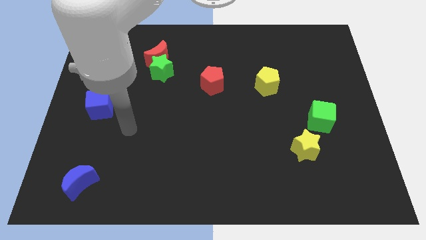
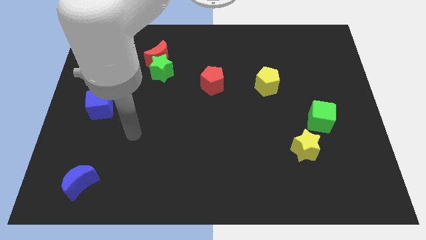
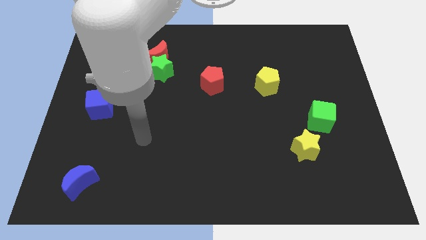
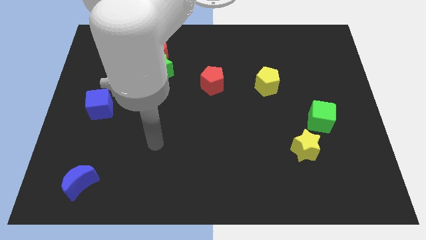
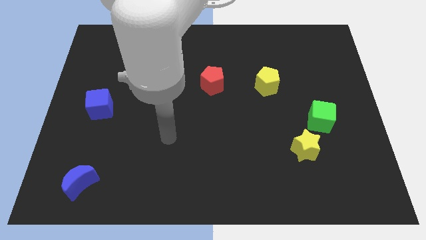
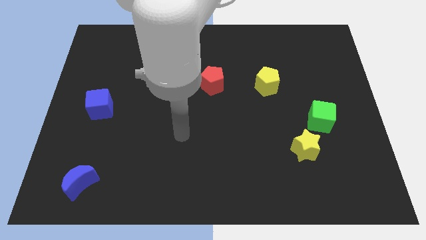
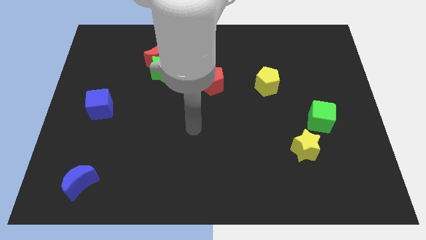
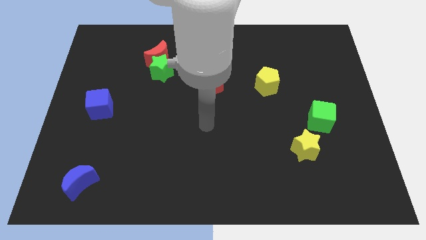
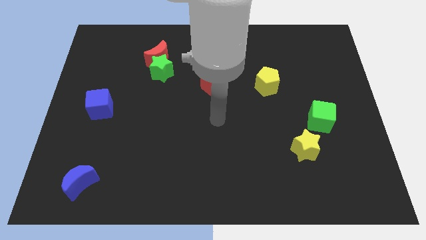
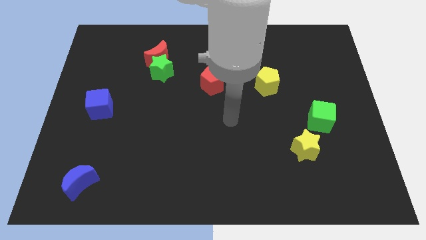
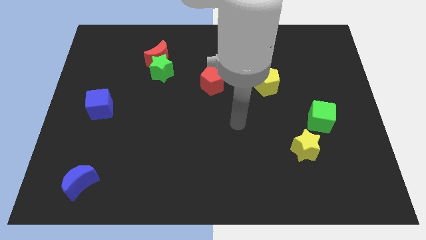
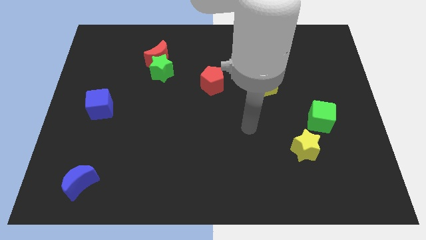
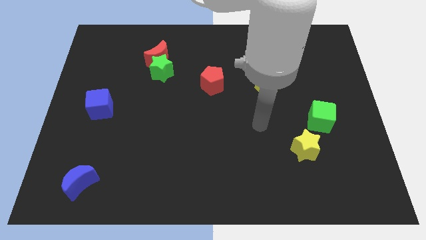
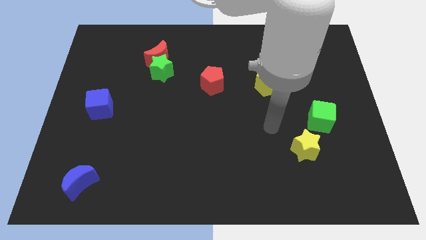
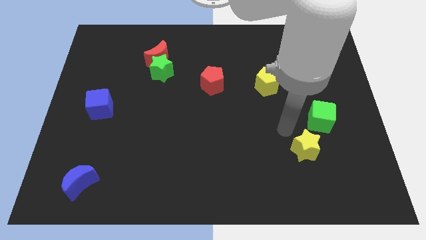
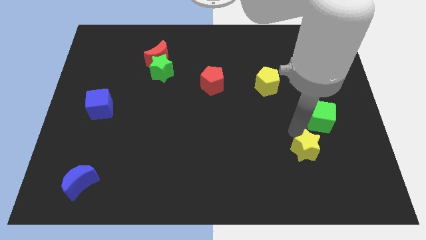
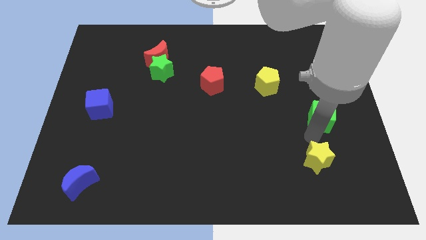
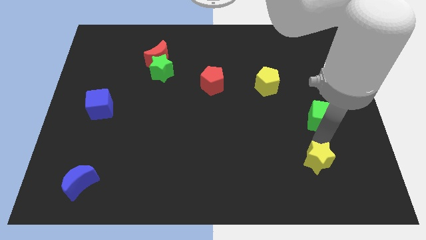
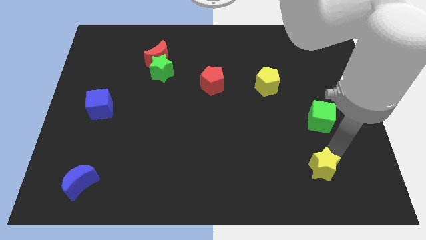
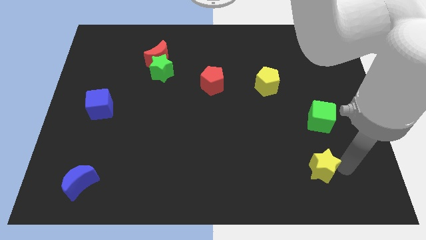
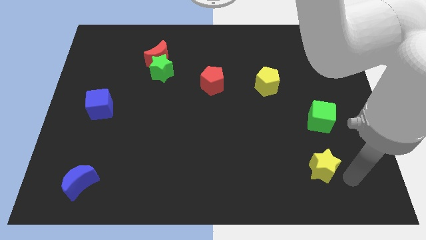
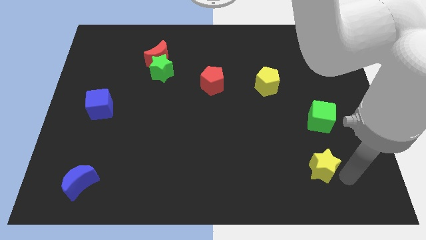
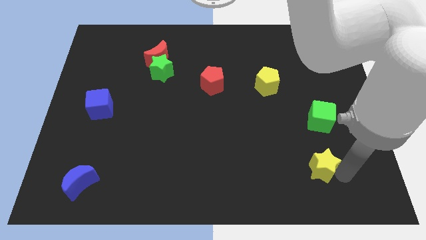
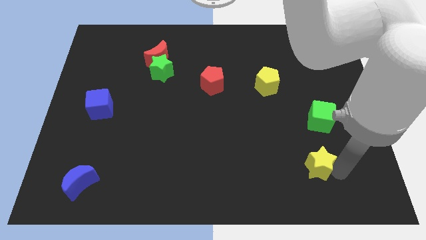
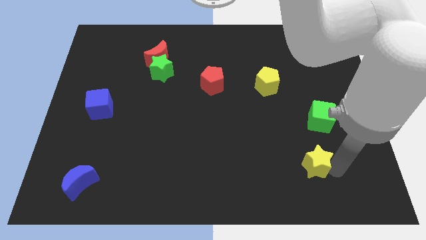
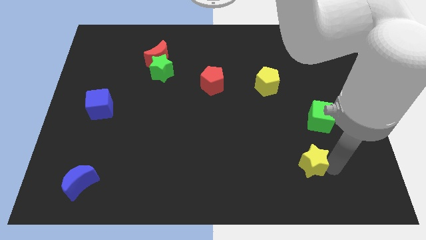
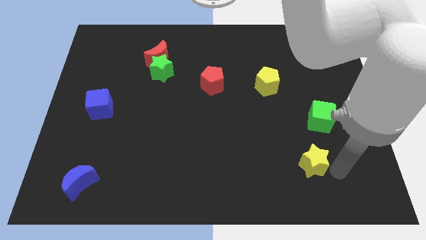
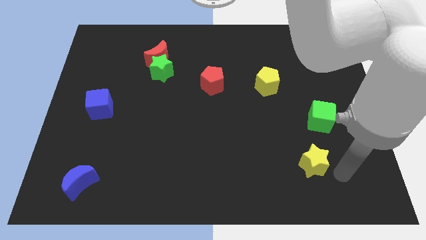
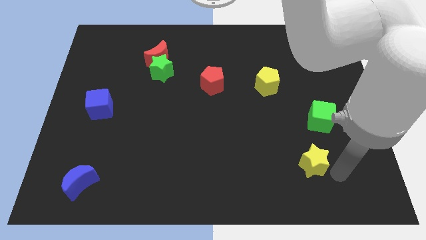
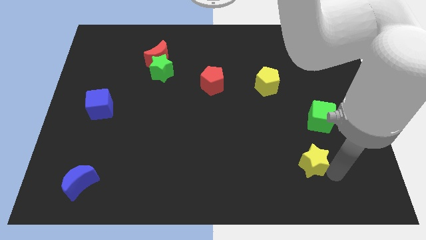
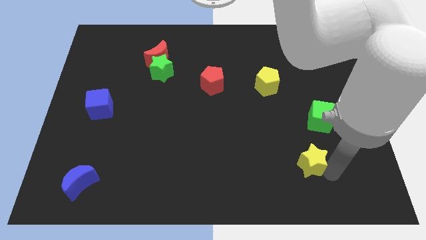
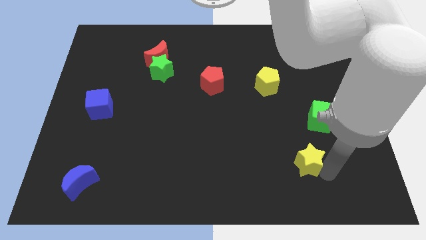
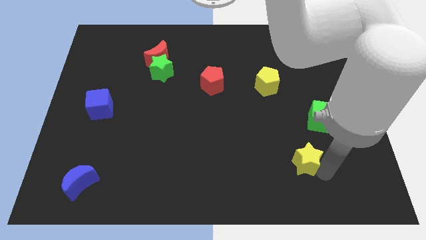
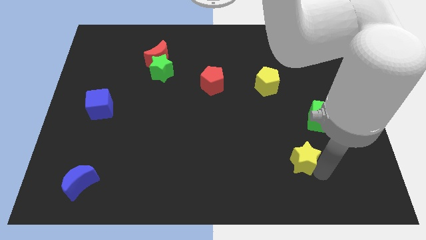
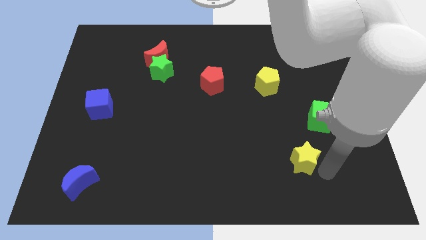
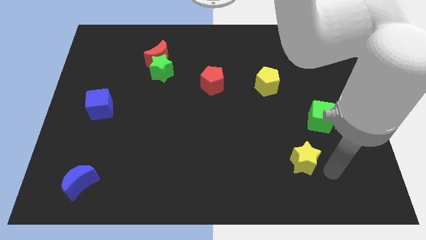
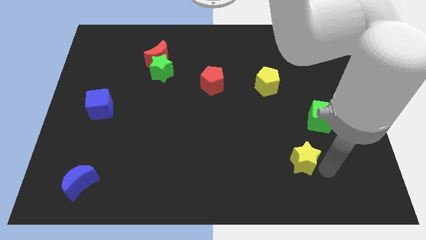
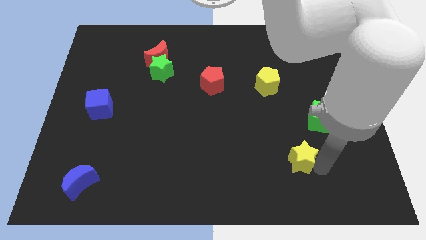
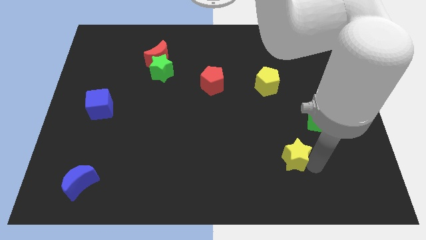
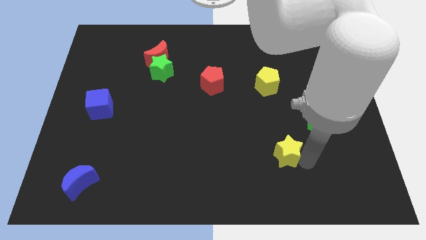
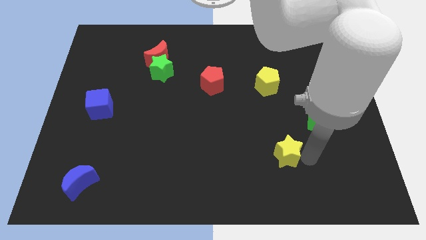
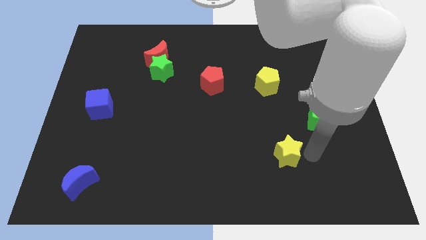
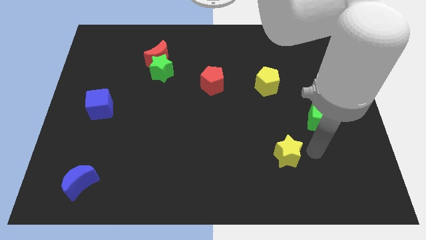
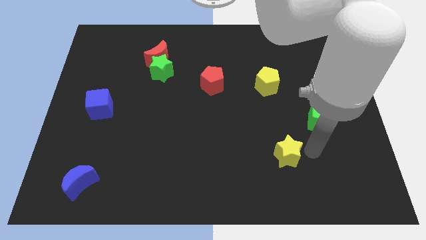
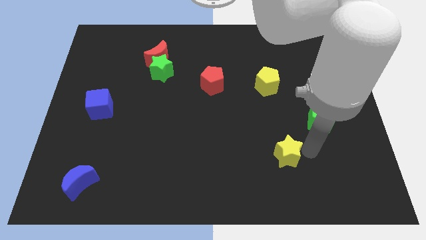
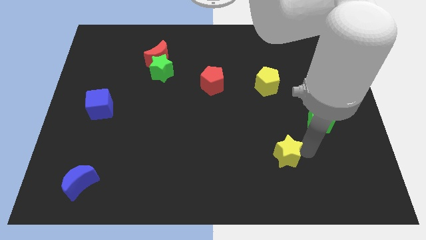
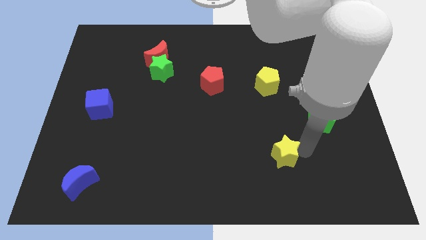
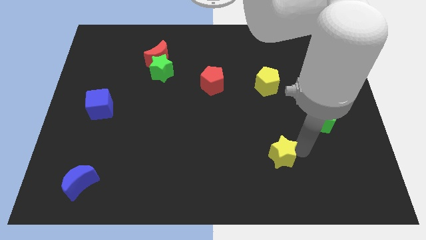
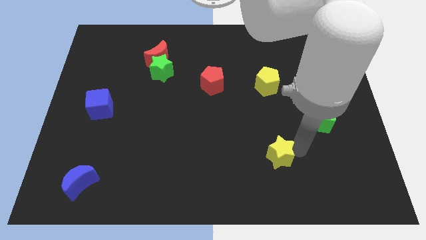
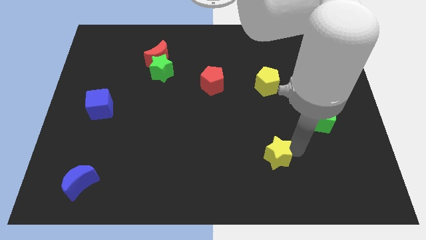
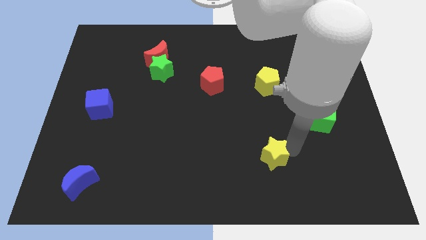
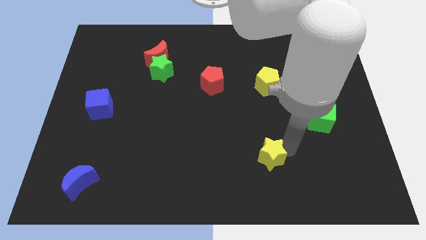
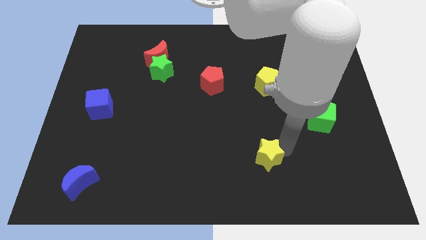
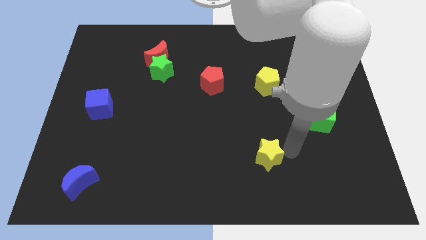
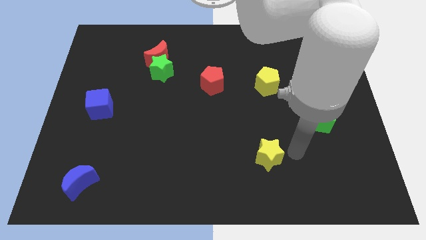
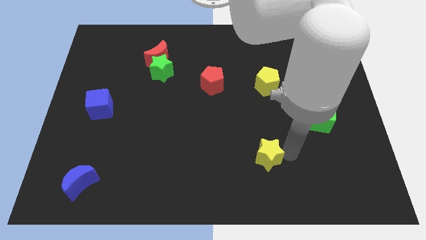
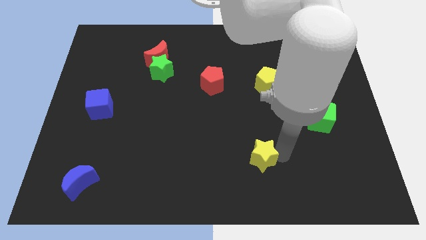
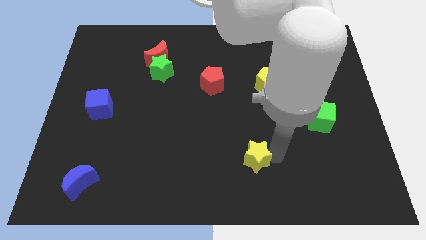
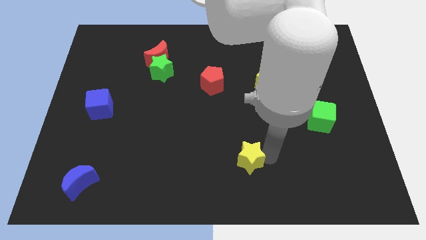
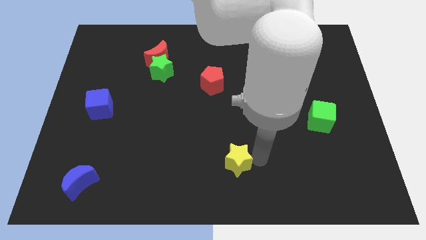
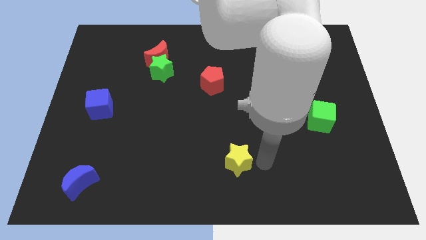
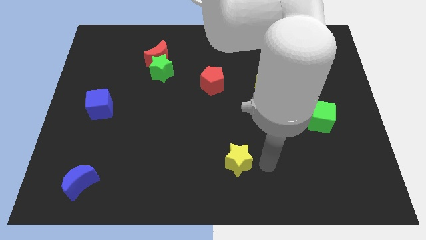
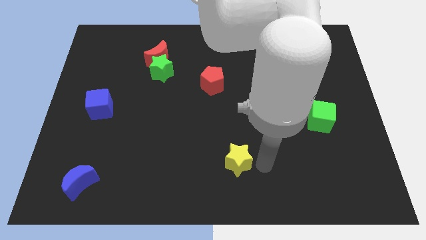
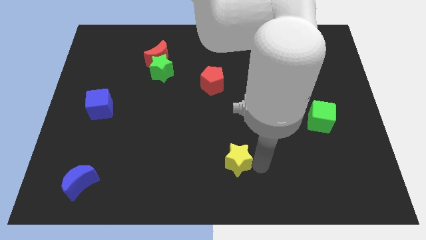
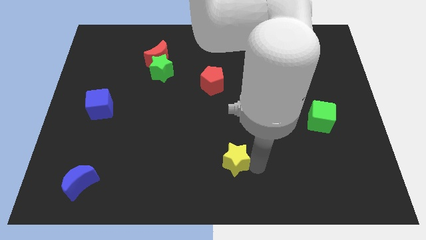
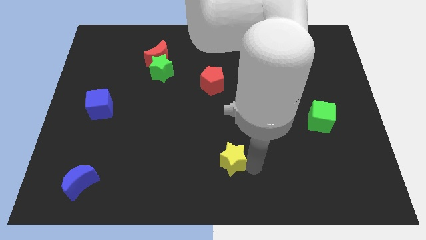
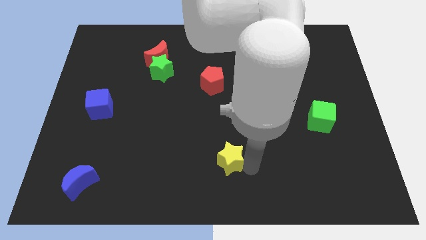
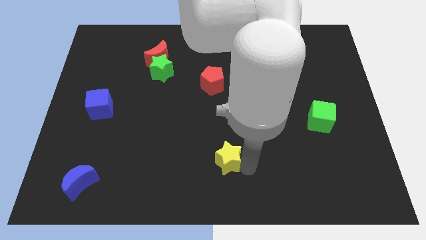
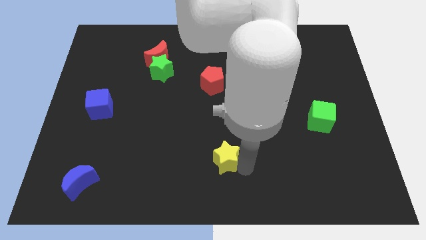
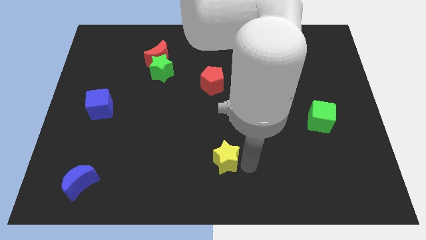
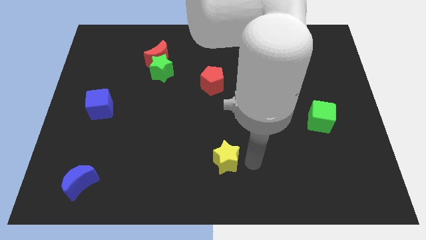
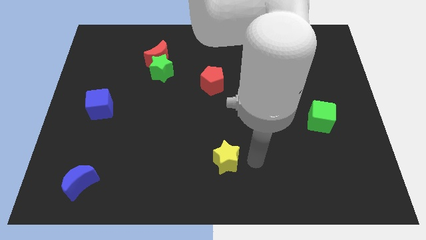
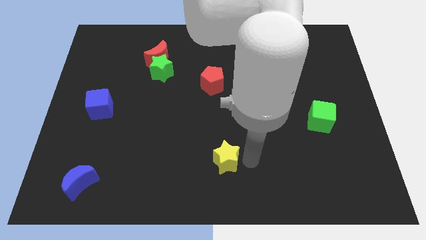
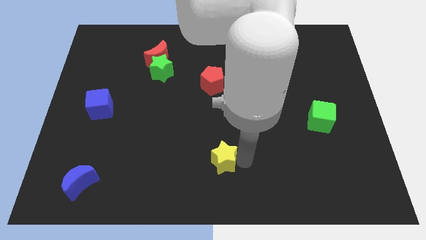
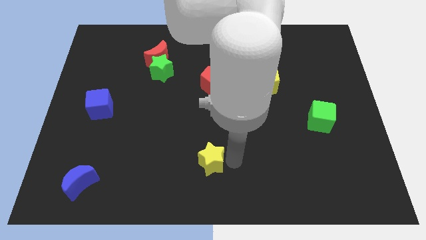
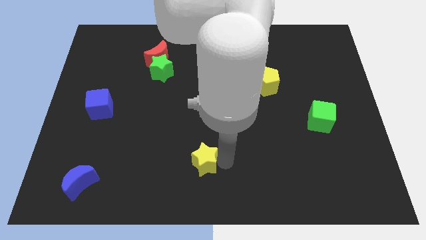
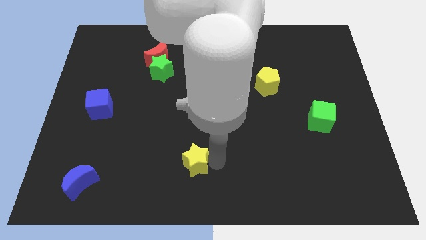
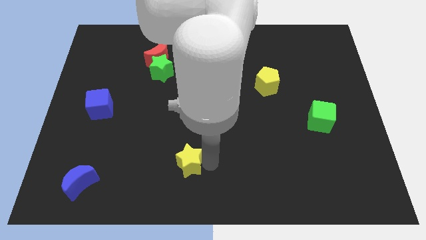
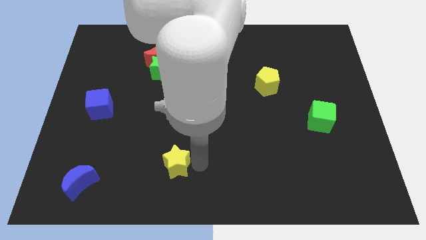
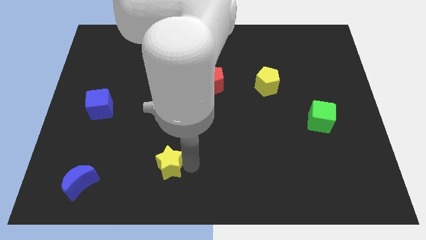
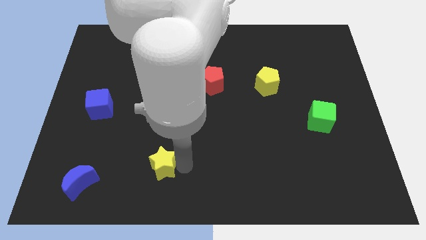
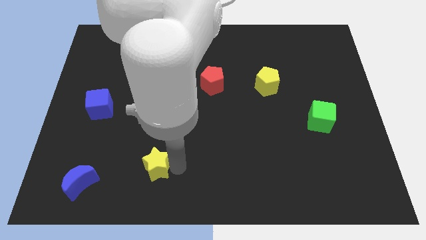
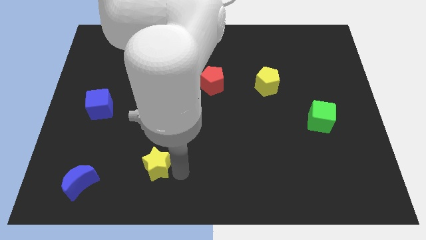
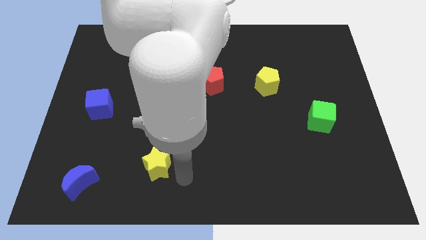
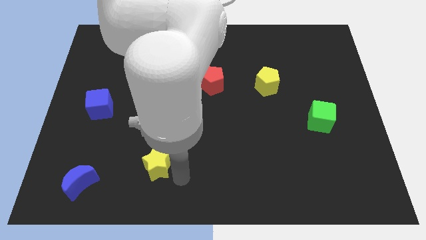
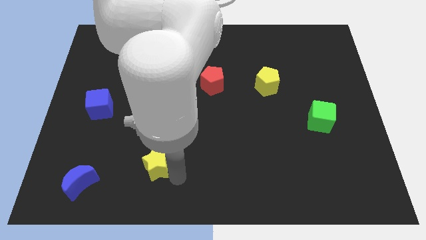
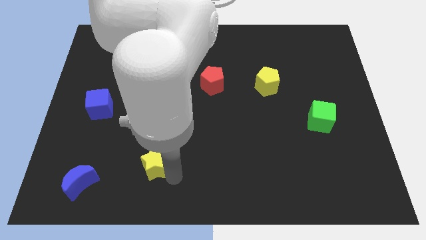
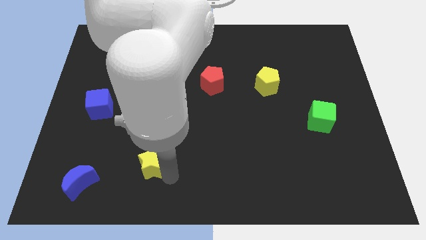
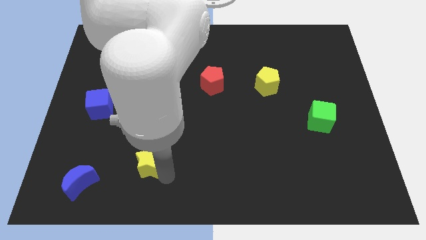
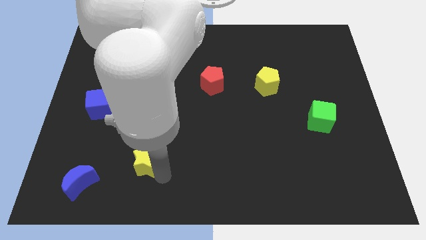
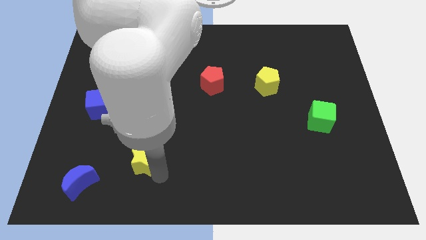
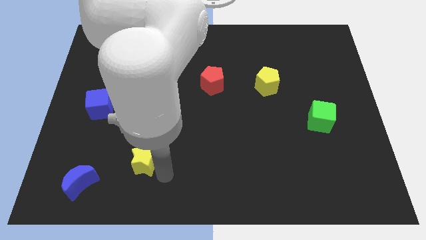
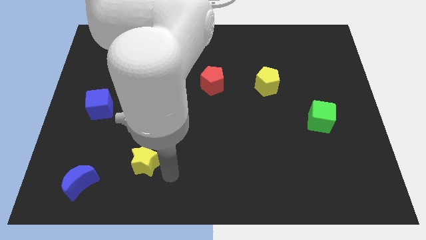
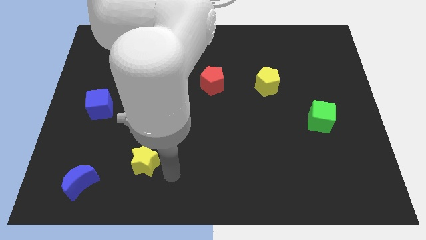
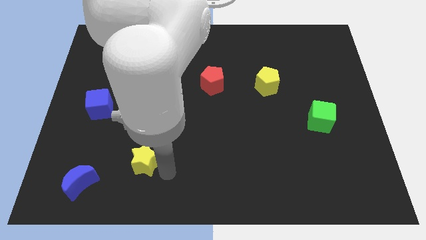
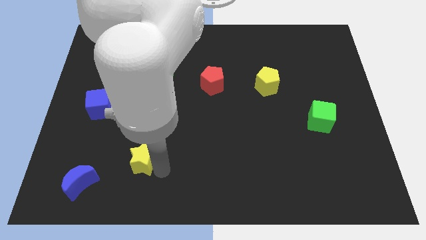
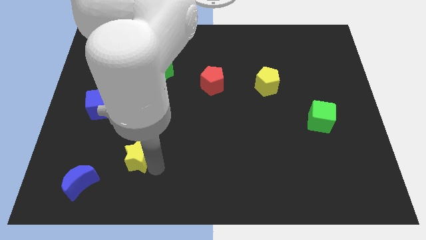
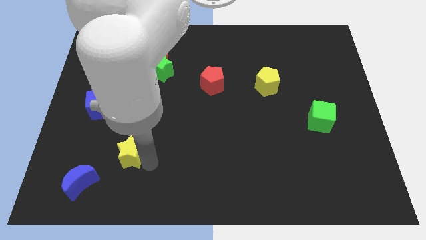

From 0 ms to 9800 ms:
slide the yellow star to the top right of the blue moon
